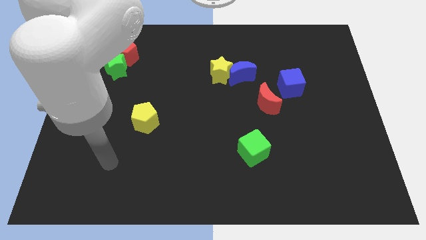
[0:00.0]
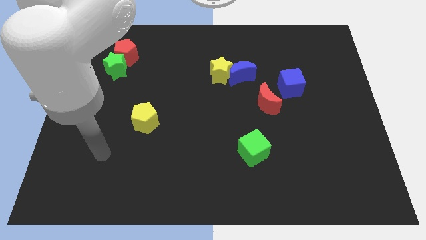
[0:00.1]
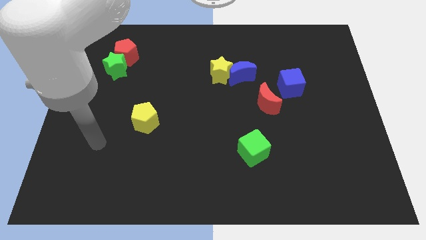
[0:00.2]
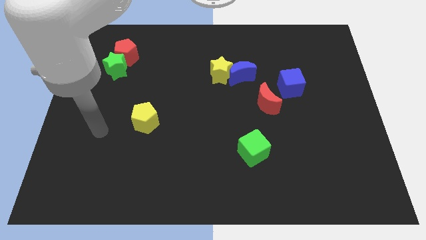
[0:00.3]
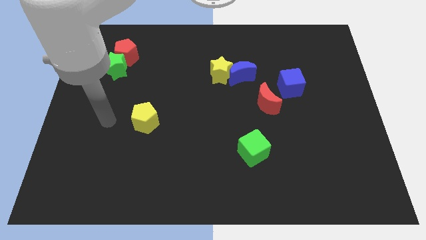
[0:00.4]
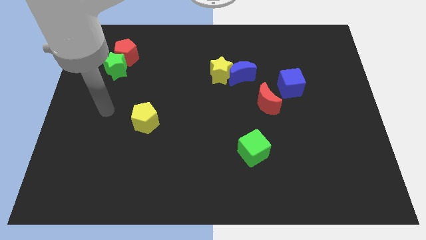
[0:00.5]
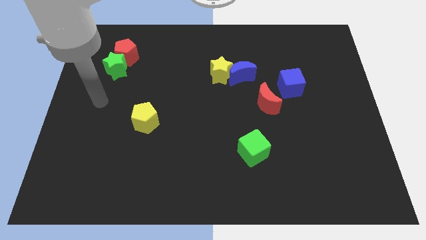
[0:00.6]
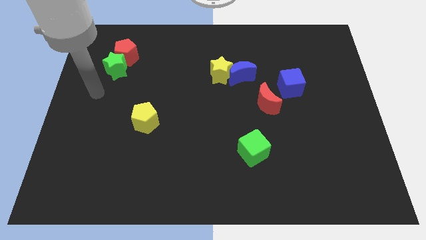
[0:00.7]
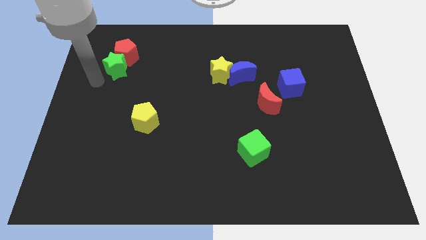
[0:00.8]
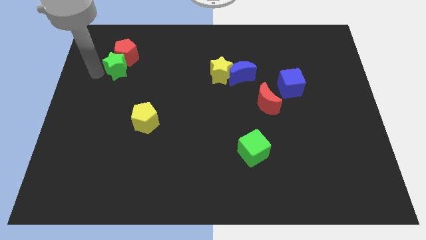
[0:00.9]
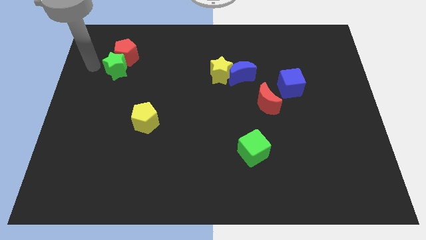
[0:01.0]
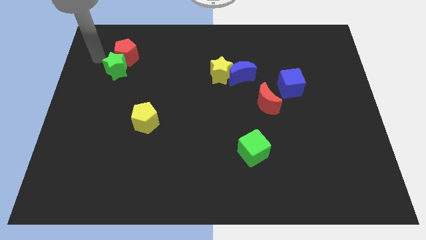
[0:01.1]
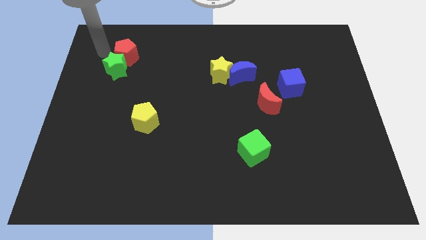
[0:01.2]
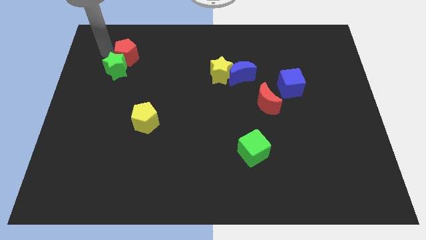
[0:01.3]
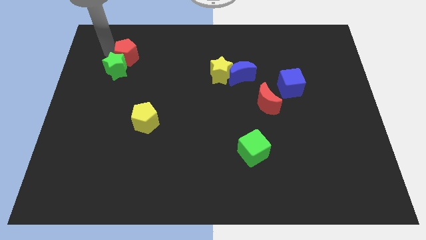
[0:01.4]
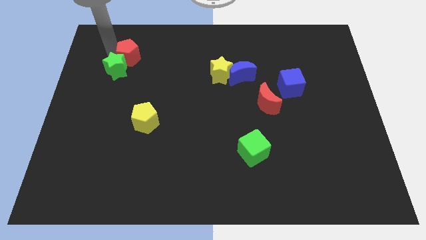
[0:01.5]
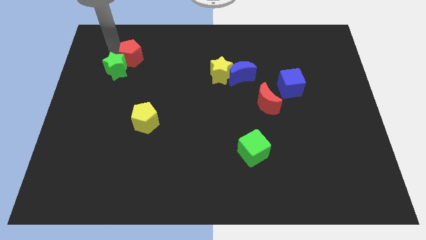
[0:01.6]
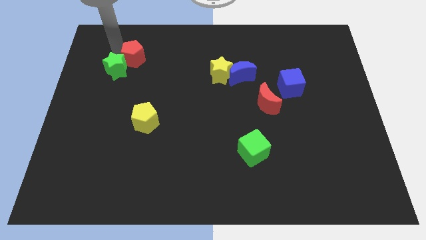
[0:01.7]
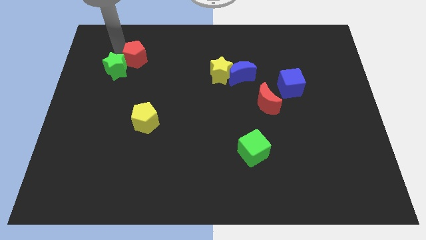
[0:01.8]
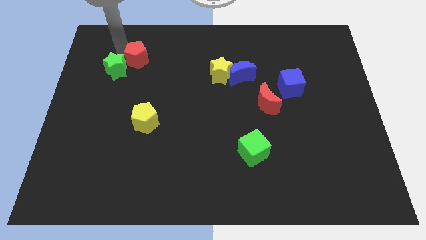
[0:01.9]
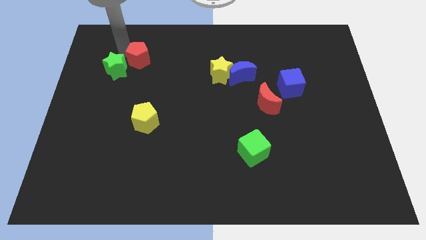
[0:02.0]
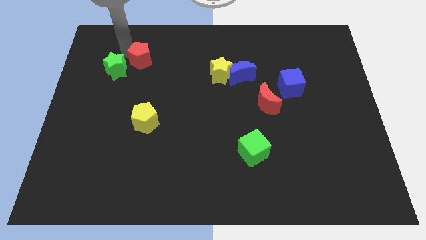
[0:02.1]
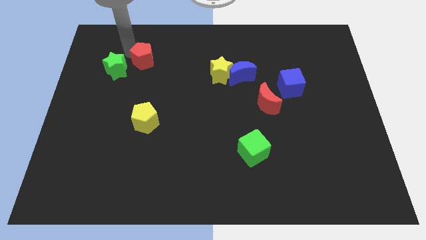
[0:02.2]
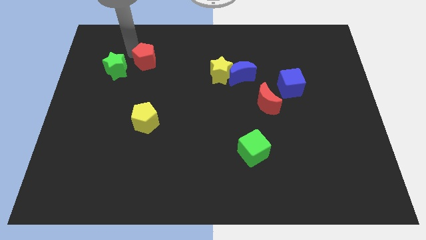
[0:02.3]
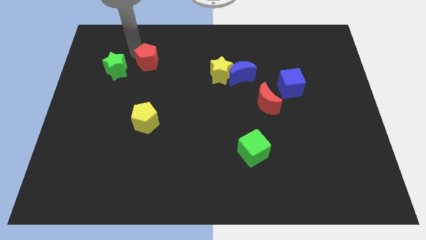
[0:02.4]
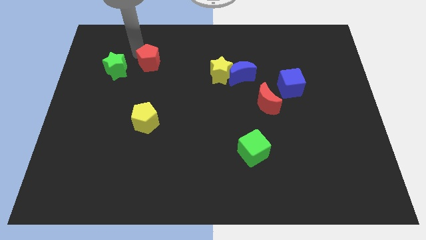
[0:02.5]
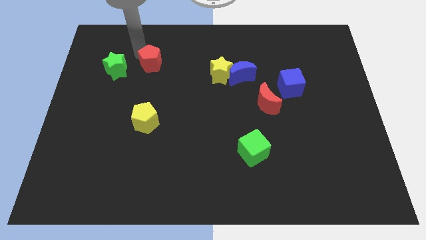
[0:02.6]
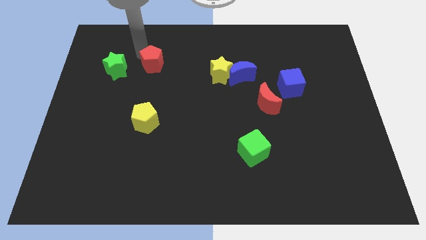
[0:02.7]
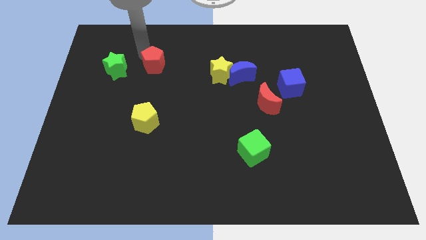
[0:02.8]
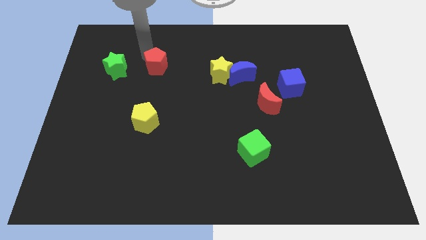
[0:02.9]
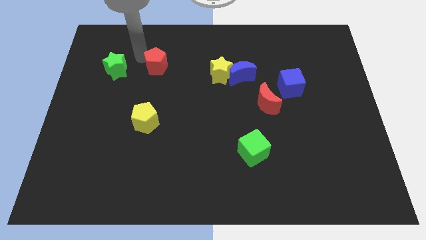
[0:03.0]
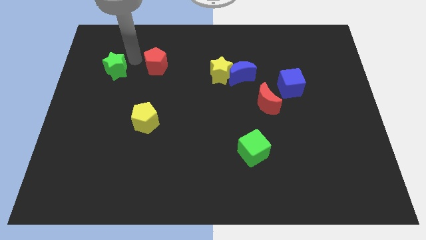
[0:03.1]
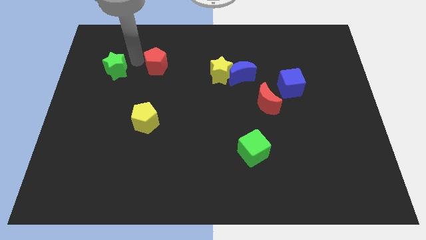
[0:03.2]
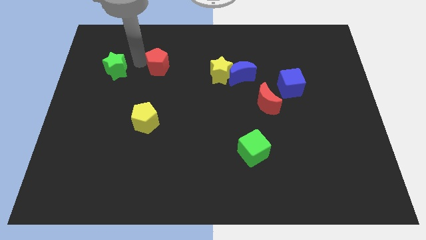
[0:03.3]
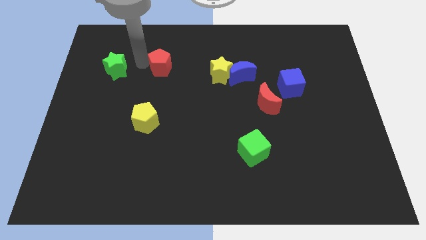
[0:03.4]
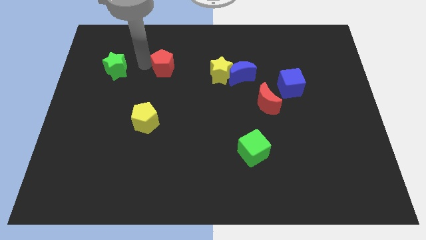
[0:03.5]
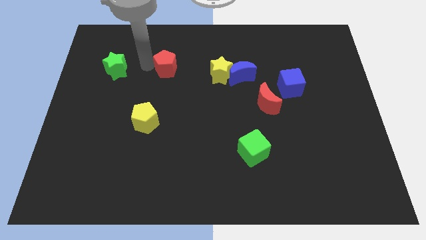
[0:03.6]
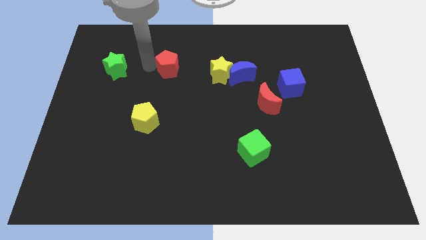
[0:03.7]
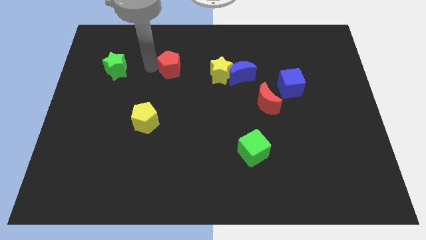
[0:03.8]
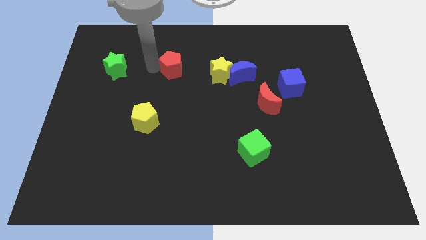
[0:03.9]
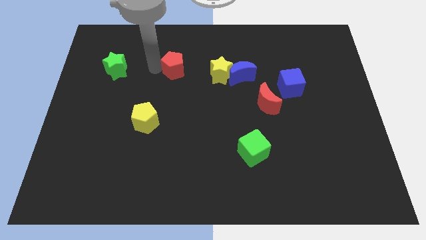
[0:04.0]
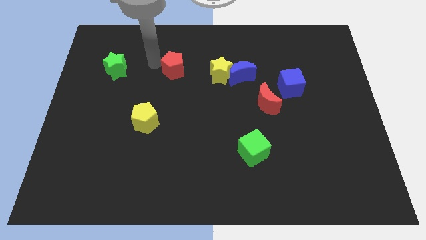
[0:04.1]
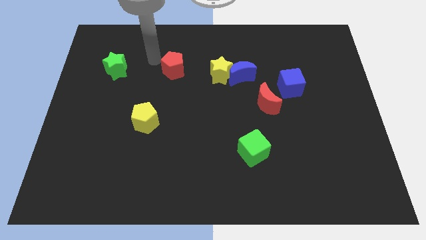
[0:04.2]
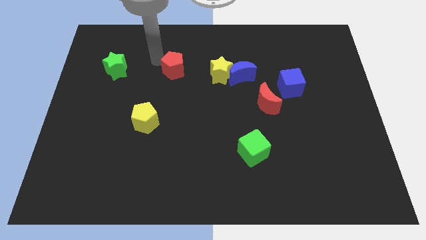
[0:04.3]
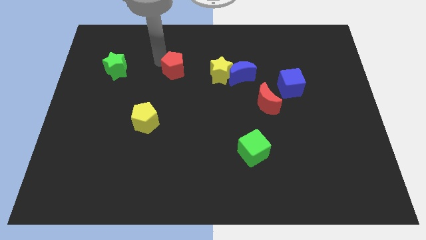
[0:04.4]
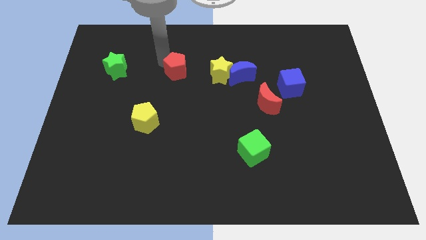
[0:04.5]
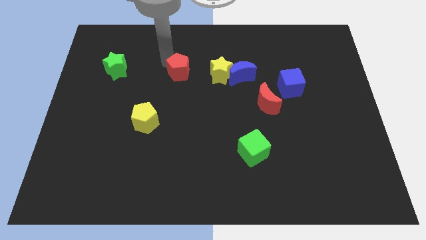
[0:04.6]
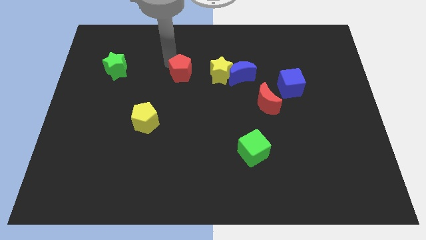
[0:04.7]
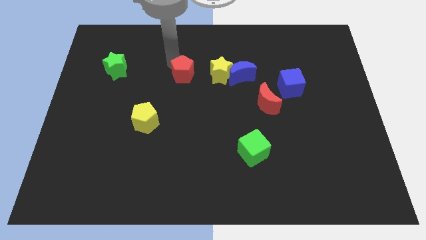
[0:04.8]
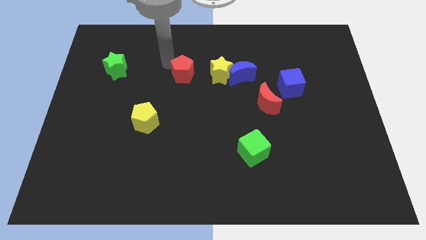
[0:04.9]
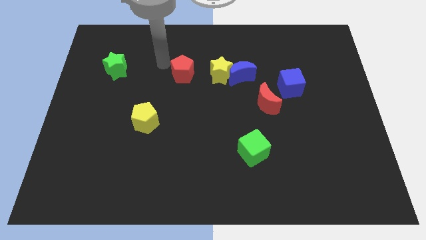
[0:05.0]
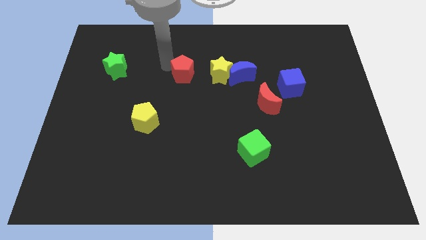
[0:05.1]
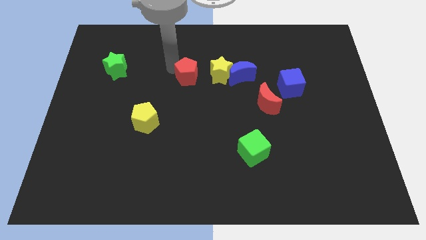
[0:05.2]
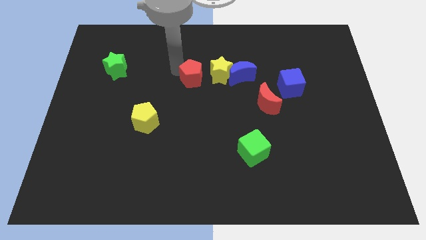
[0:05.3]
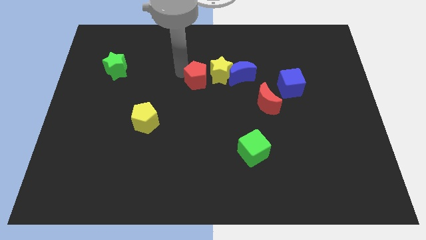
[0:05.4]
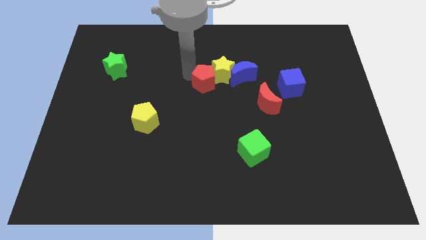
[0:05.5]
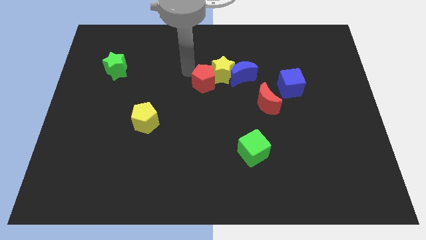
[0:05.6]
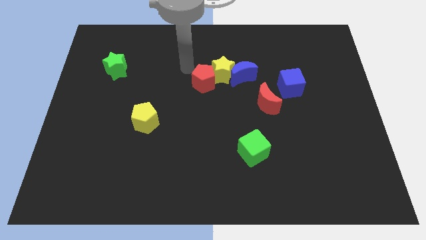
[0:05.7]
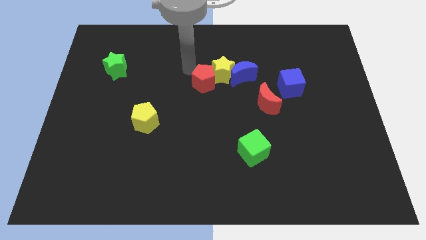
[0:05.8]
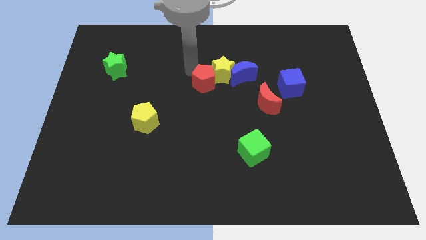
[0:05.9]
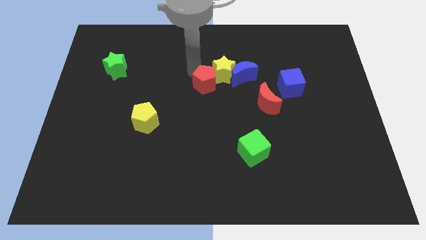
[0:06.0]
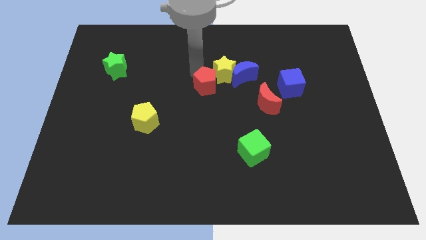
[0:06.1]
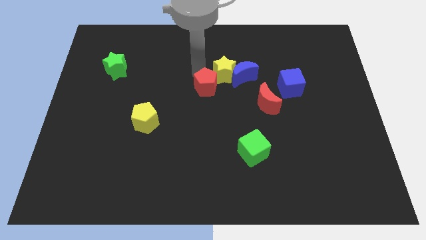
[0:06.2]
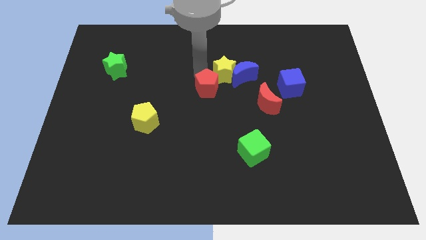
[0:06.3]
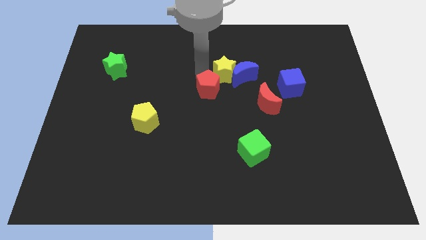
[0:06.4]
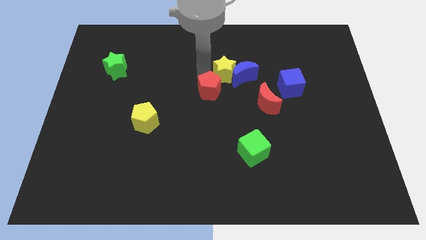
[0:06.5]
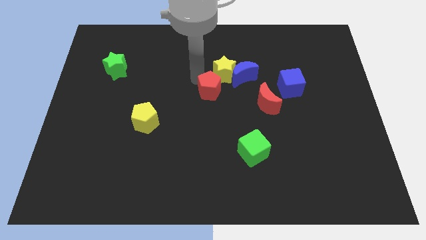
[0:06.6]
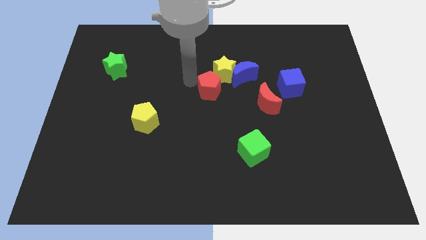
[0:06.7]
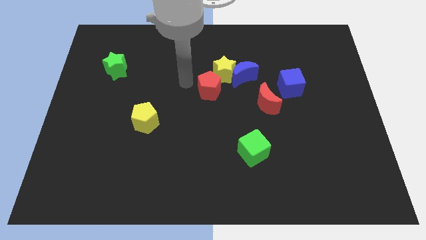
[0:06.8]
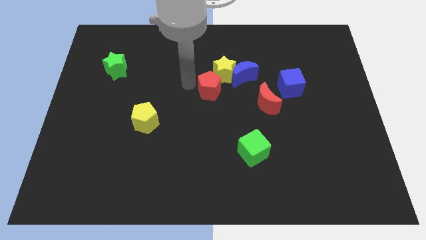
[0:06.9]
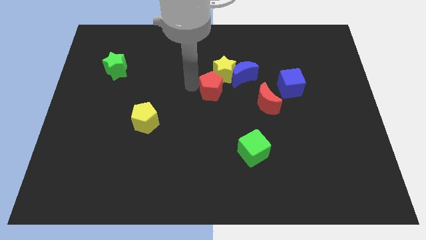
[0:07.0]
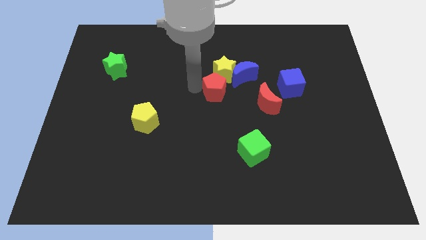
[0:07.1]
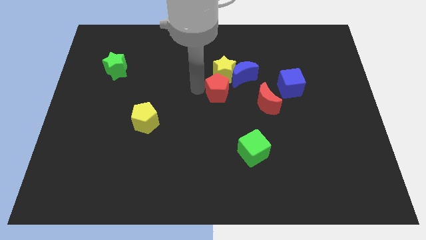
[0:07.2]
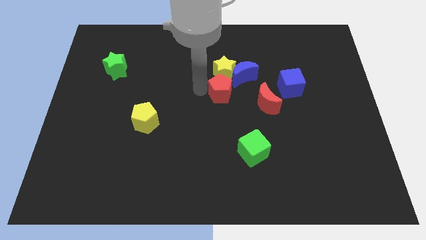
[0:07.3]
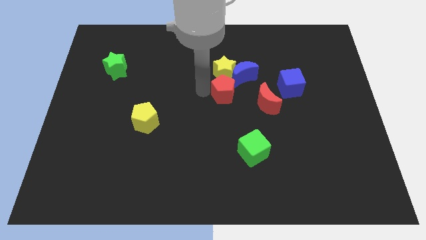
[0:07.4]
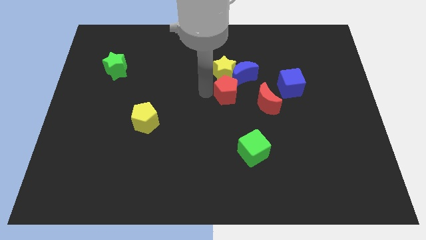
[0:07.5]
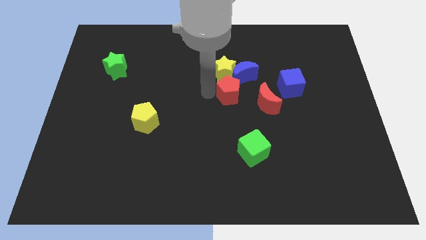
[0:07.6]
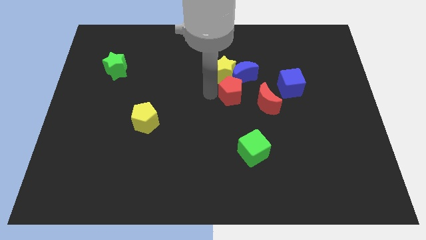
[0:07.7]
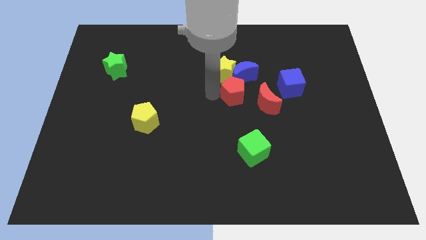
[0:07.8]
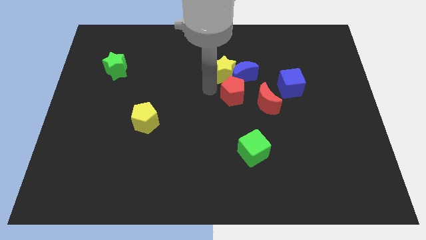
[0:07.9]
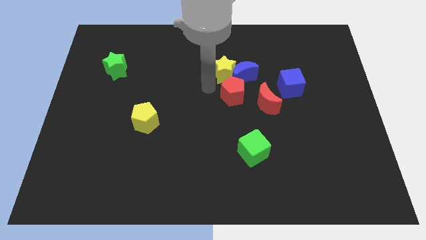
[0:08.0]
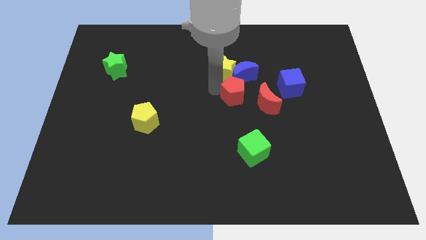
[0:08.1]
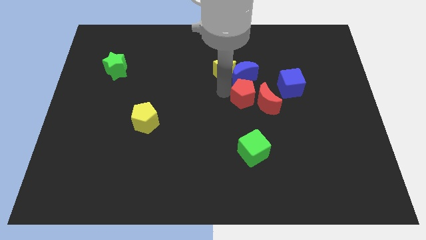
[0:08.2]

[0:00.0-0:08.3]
push the red pentagon close to the red moon
